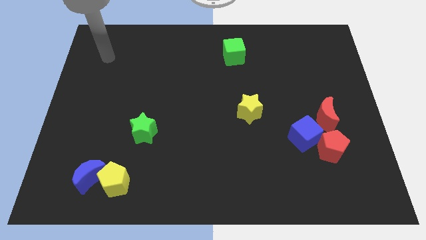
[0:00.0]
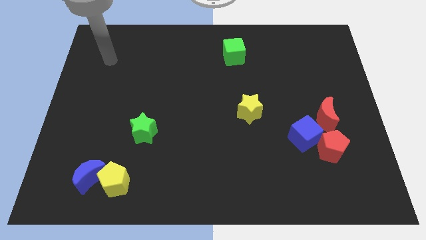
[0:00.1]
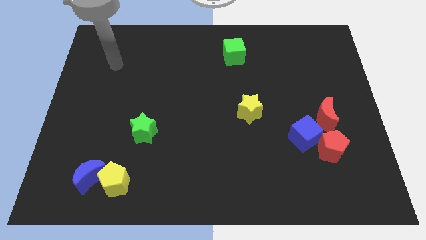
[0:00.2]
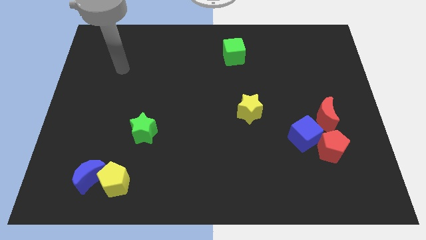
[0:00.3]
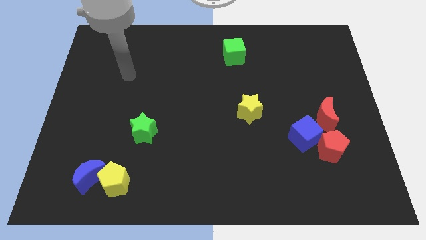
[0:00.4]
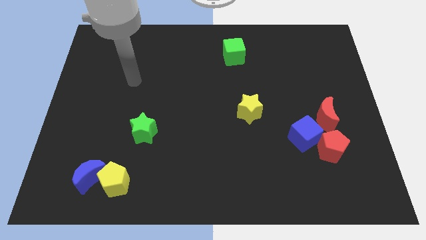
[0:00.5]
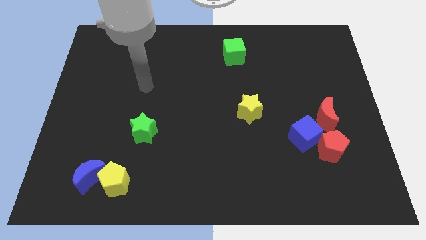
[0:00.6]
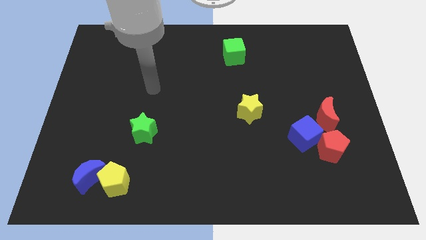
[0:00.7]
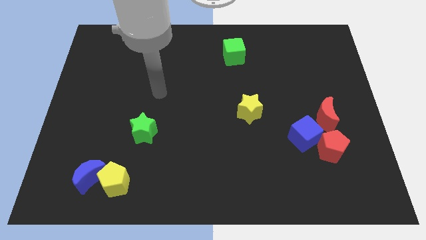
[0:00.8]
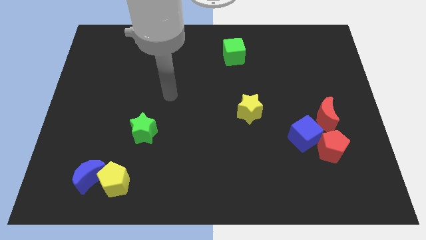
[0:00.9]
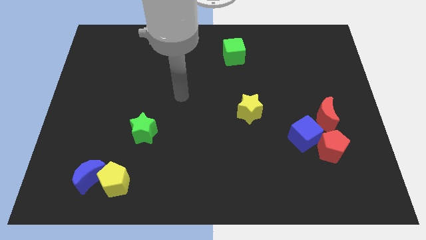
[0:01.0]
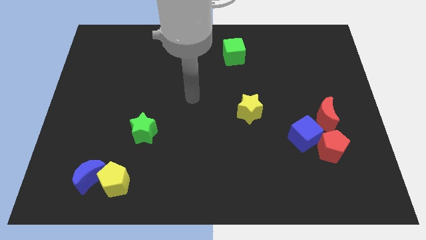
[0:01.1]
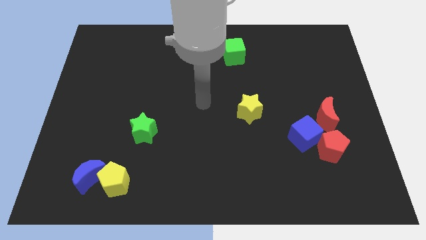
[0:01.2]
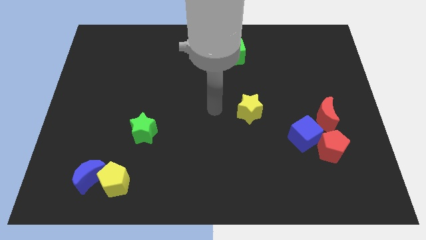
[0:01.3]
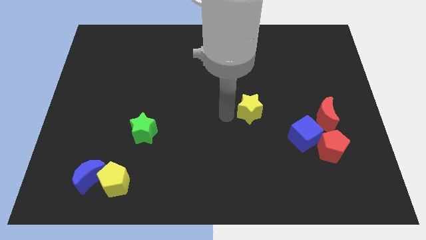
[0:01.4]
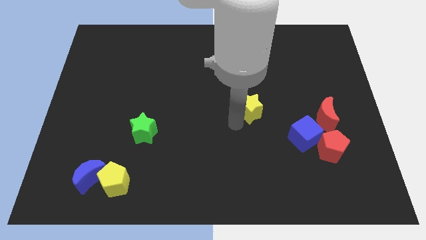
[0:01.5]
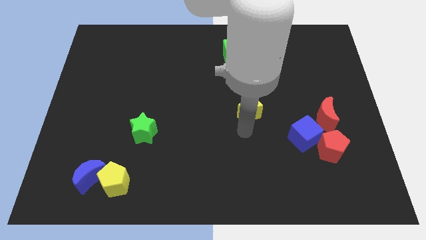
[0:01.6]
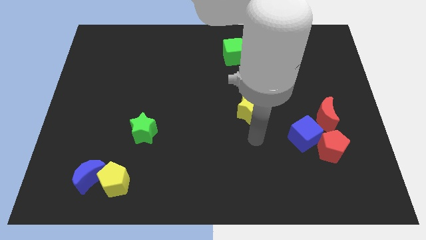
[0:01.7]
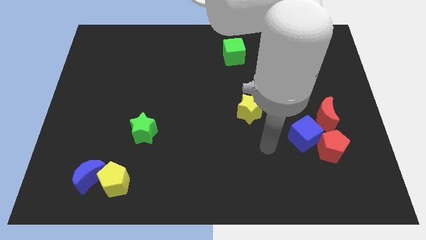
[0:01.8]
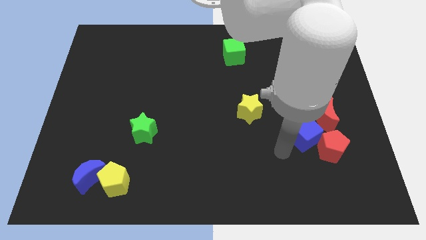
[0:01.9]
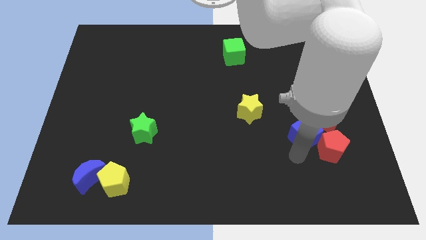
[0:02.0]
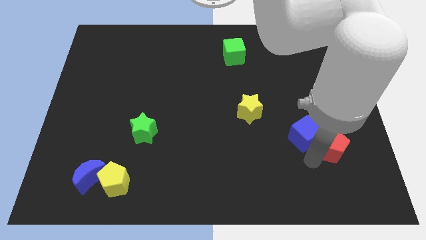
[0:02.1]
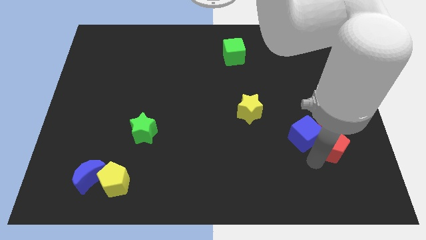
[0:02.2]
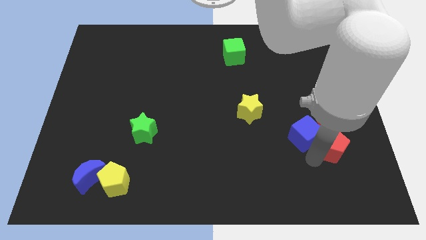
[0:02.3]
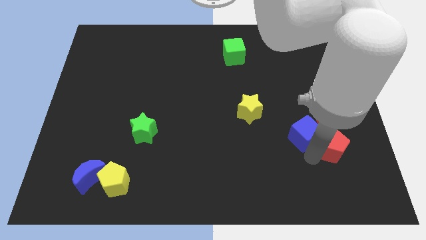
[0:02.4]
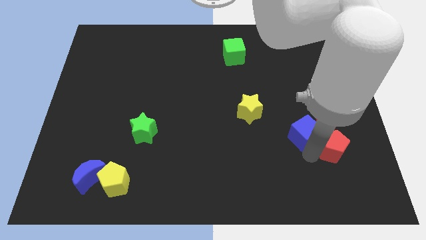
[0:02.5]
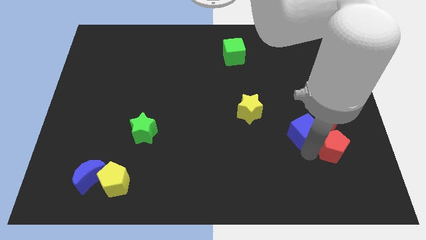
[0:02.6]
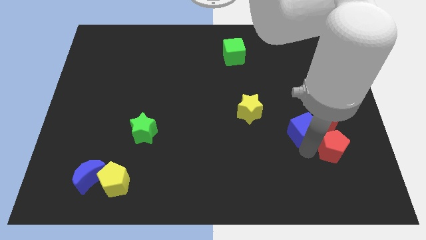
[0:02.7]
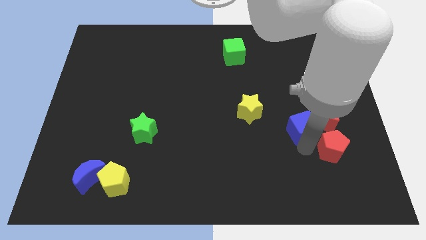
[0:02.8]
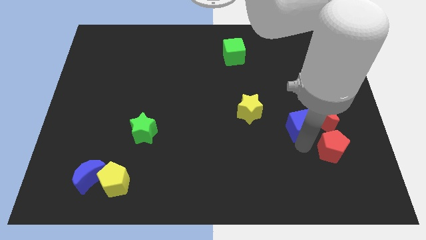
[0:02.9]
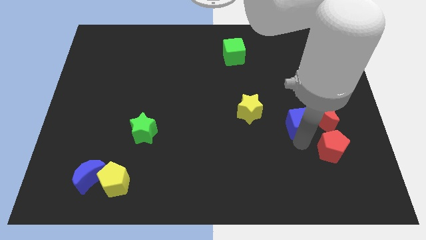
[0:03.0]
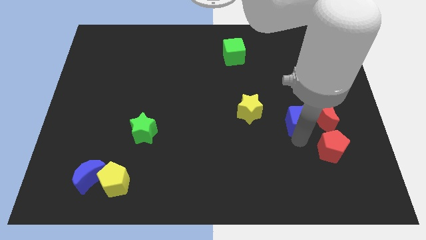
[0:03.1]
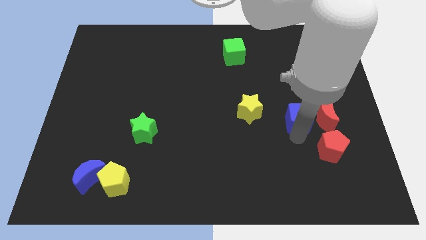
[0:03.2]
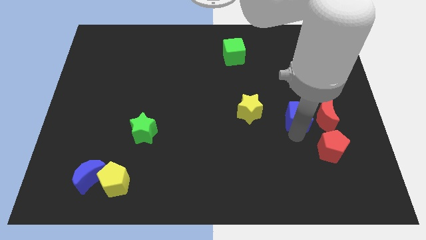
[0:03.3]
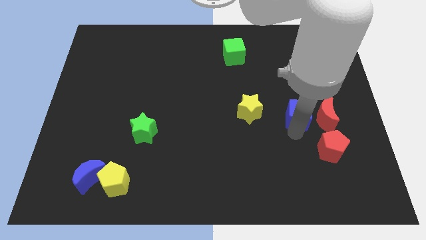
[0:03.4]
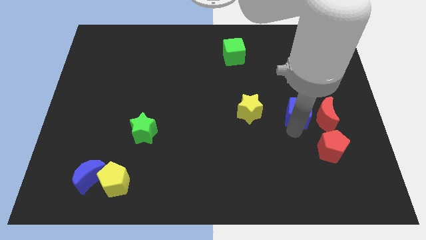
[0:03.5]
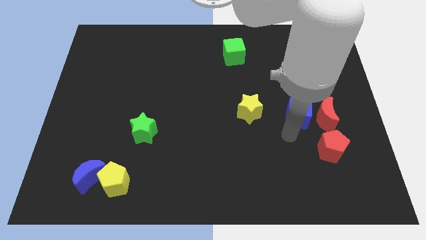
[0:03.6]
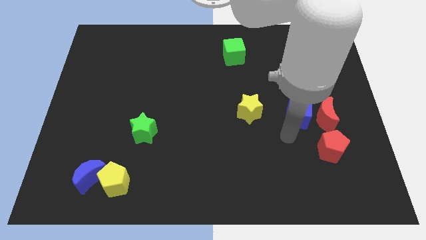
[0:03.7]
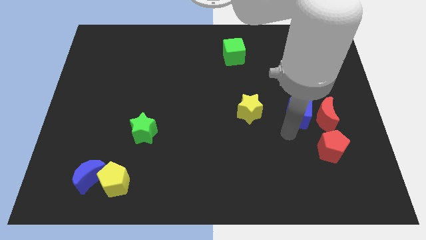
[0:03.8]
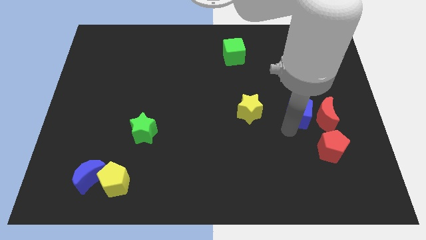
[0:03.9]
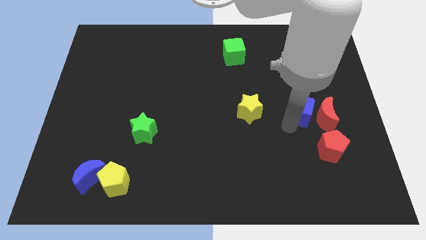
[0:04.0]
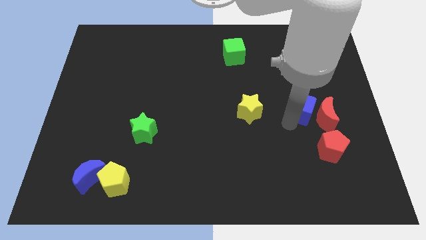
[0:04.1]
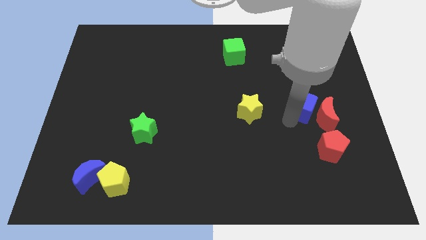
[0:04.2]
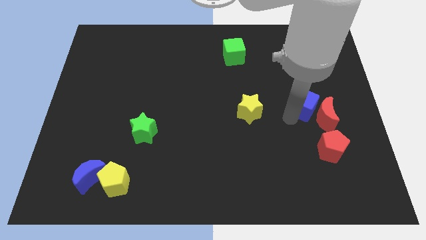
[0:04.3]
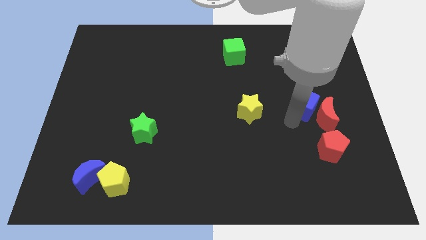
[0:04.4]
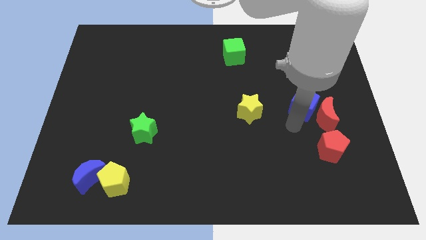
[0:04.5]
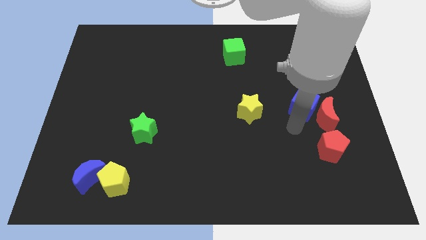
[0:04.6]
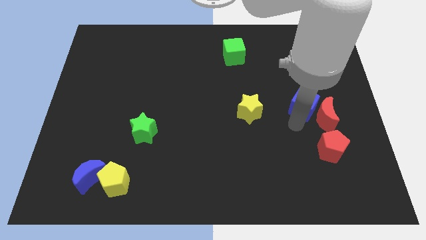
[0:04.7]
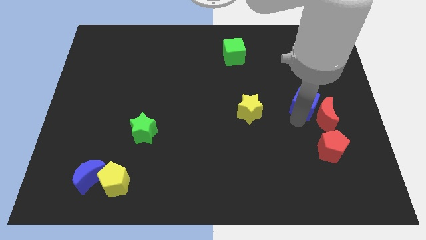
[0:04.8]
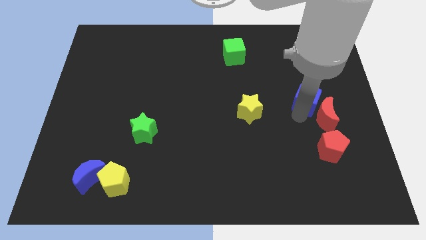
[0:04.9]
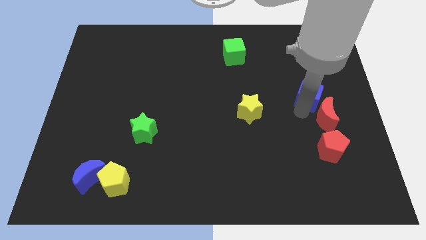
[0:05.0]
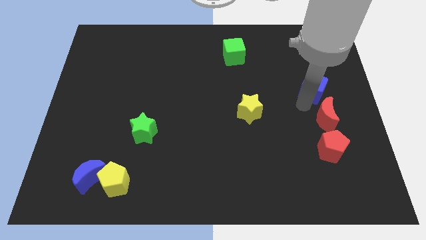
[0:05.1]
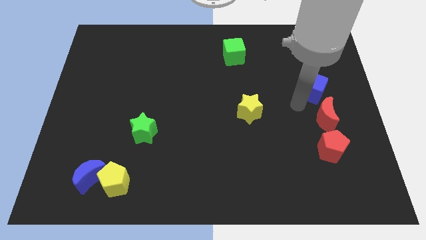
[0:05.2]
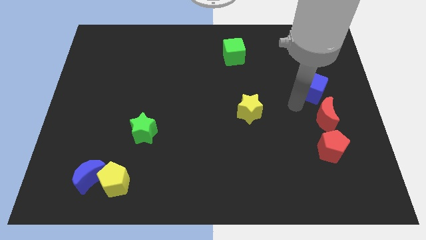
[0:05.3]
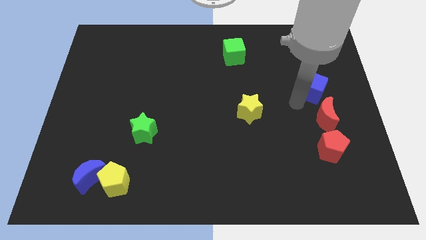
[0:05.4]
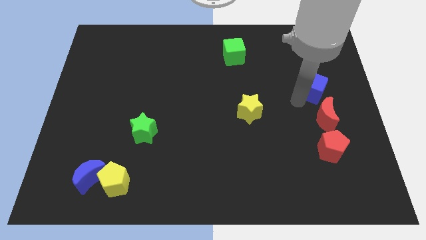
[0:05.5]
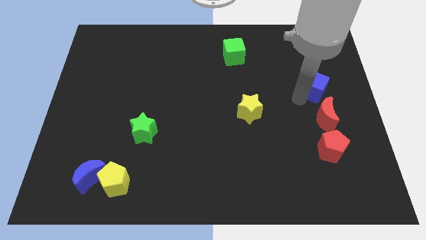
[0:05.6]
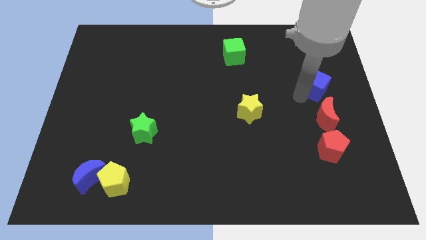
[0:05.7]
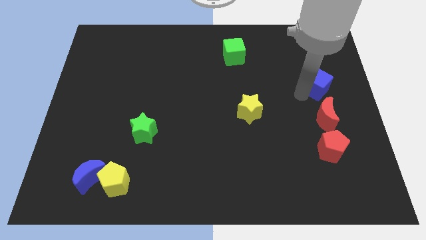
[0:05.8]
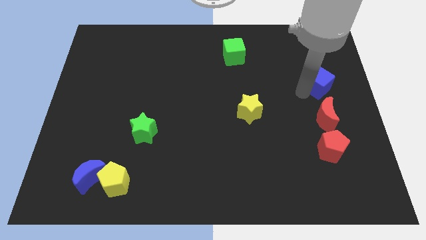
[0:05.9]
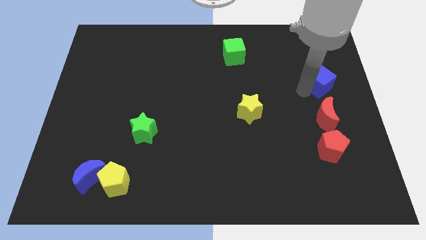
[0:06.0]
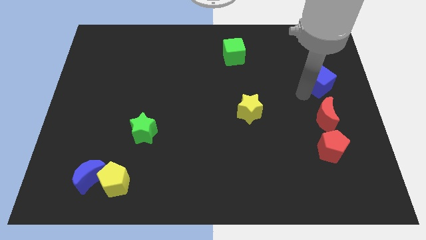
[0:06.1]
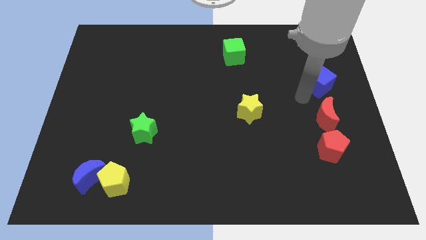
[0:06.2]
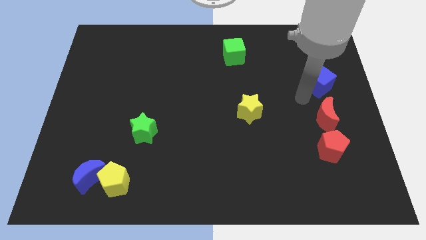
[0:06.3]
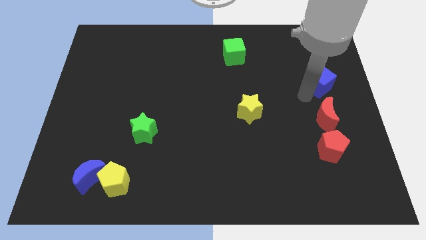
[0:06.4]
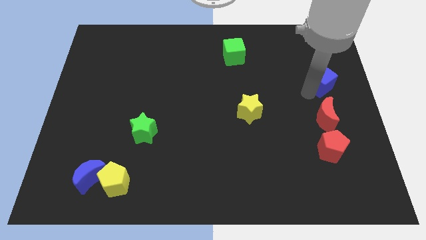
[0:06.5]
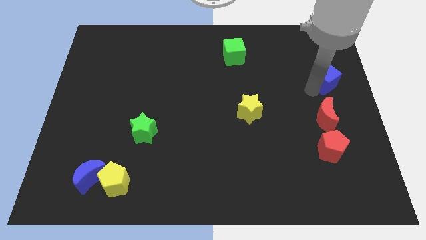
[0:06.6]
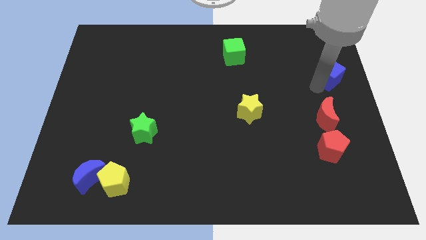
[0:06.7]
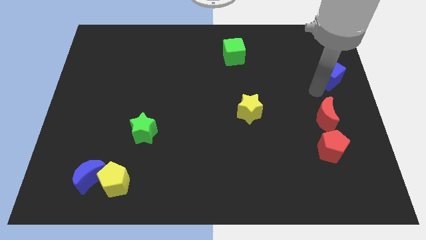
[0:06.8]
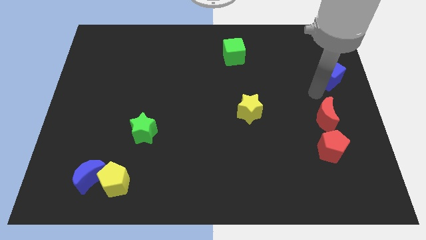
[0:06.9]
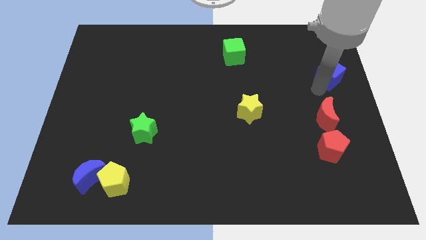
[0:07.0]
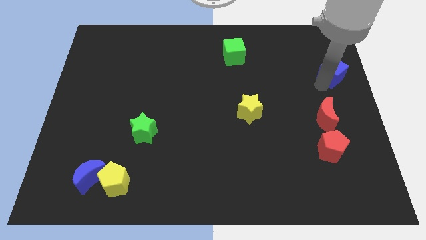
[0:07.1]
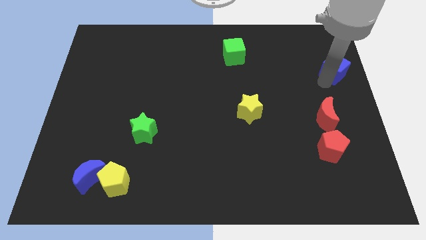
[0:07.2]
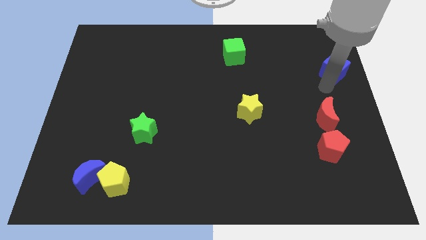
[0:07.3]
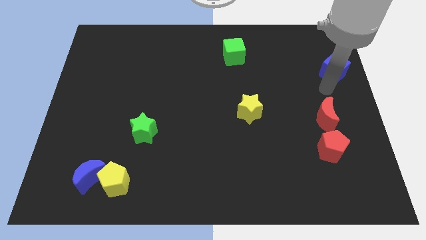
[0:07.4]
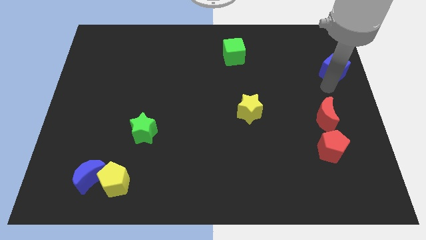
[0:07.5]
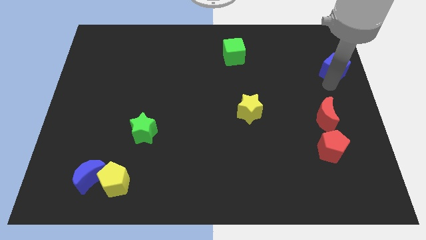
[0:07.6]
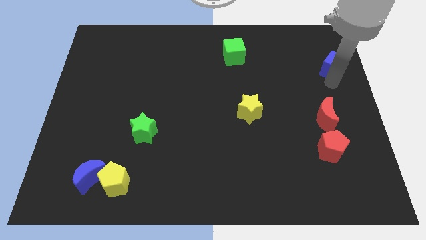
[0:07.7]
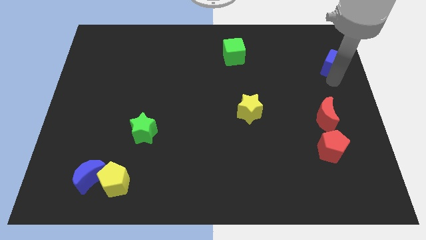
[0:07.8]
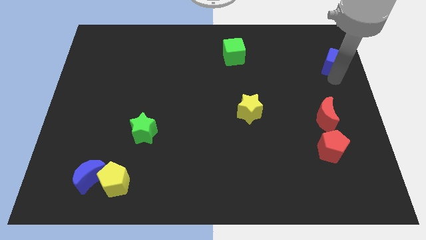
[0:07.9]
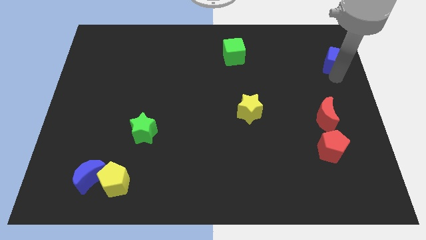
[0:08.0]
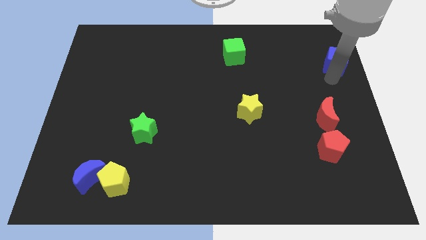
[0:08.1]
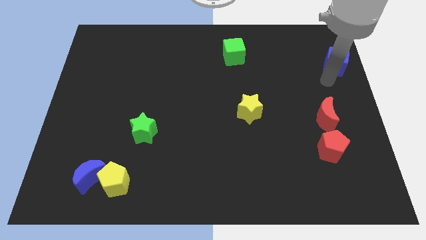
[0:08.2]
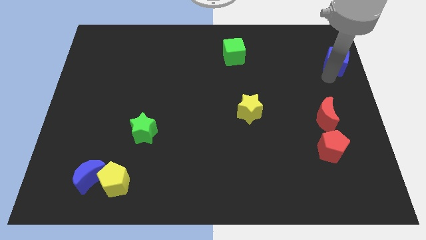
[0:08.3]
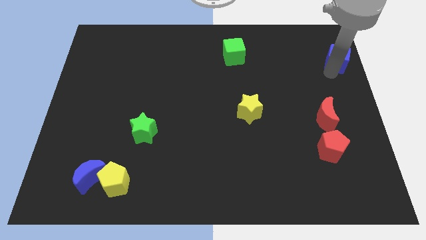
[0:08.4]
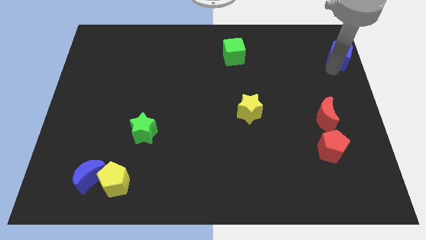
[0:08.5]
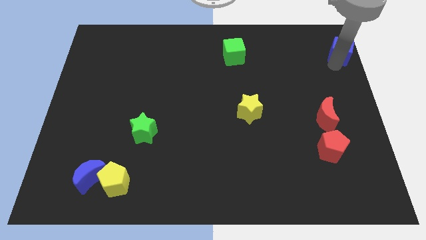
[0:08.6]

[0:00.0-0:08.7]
slide the blue cube to the top right
